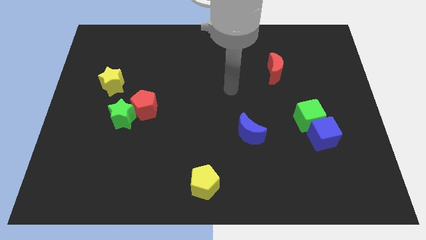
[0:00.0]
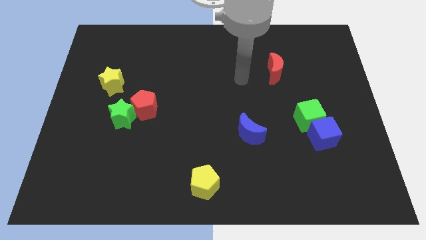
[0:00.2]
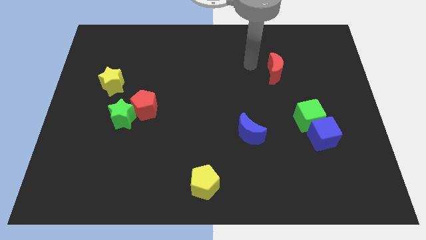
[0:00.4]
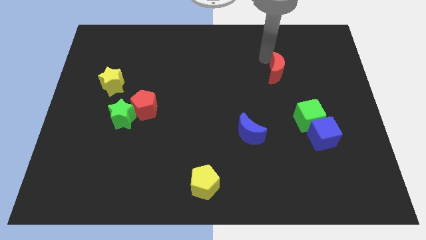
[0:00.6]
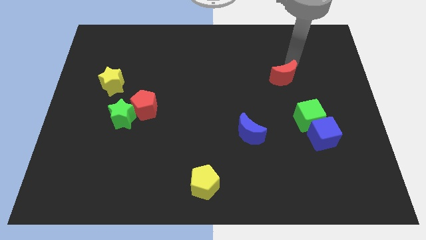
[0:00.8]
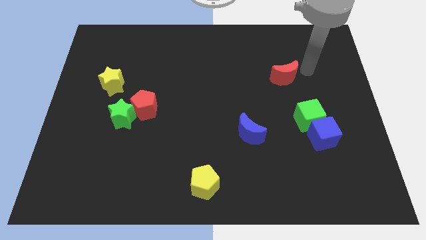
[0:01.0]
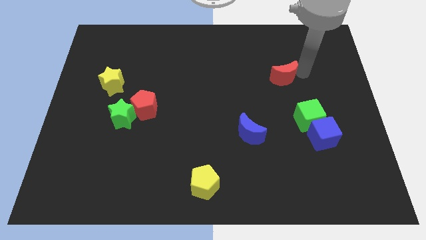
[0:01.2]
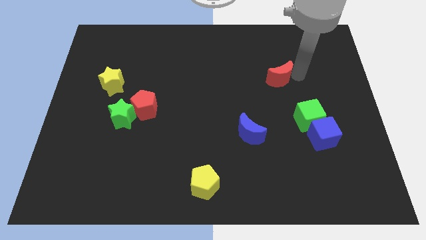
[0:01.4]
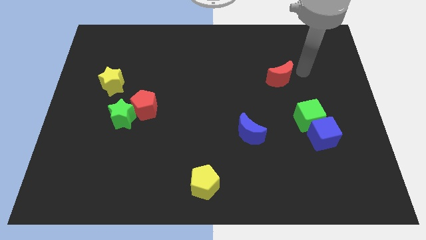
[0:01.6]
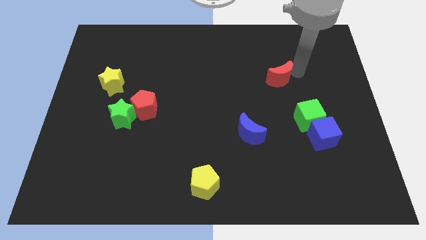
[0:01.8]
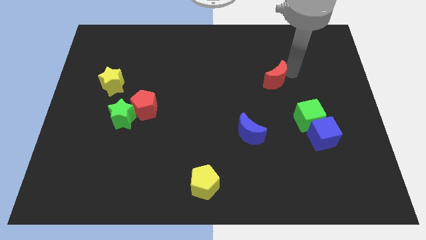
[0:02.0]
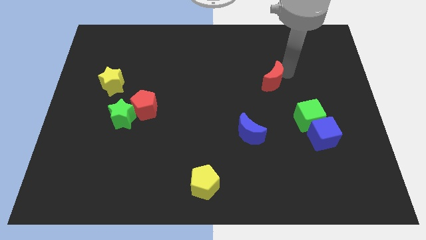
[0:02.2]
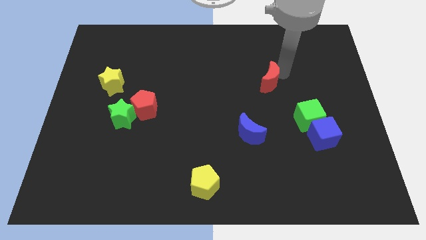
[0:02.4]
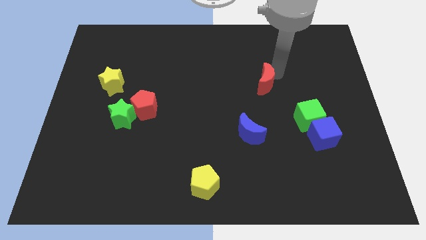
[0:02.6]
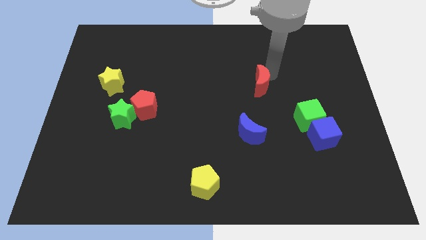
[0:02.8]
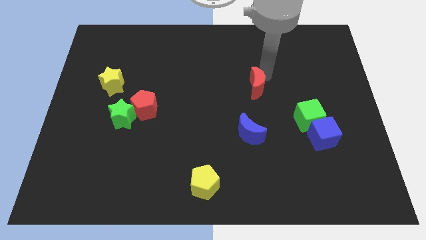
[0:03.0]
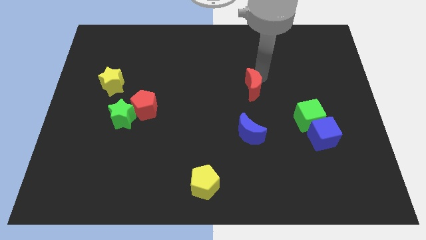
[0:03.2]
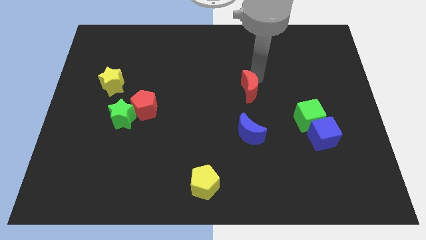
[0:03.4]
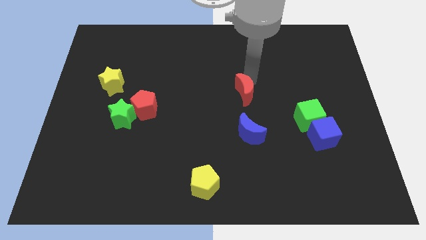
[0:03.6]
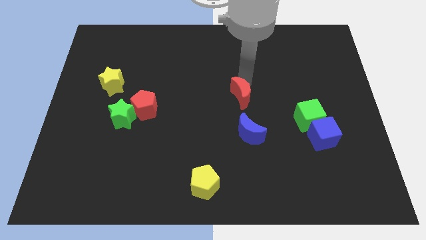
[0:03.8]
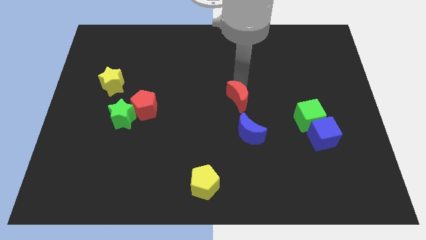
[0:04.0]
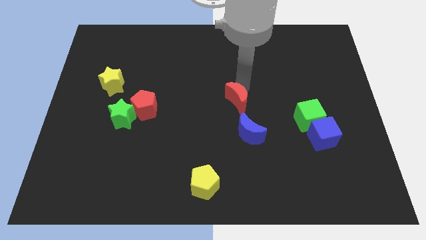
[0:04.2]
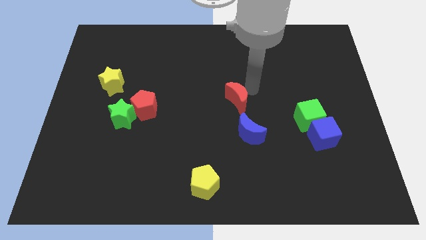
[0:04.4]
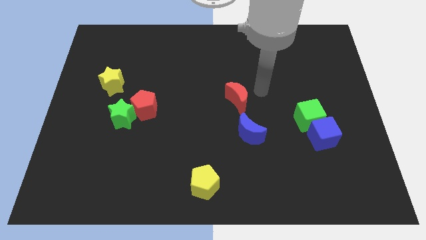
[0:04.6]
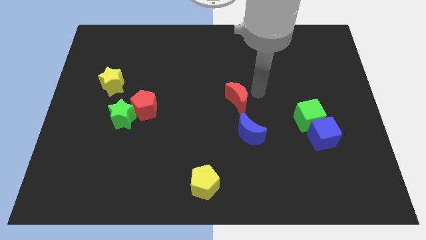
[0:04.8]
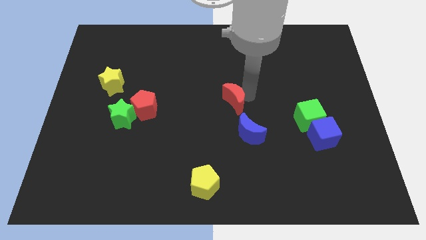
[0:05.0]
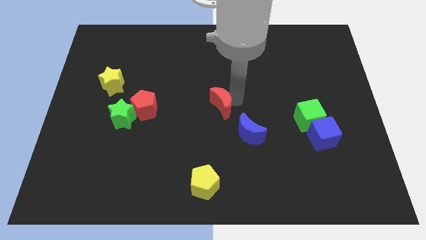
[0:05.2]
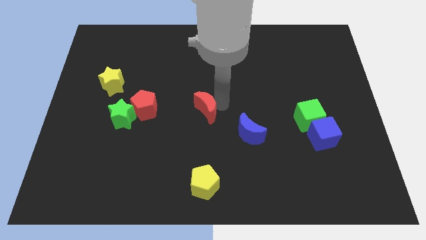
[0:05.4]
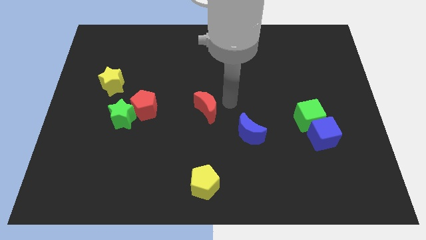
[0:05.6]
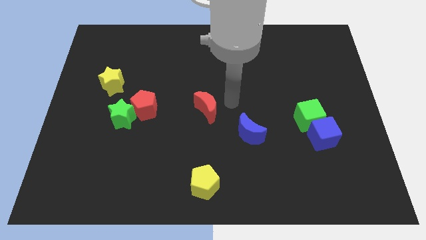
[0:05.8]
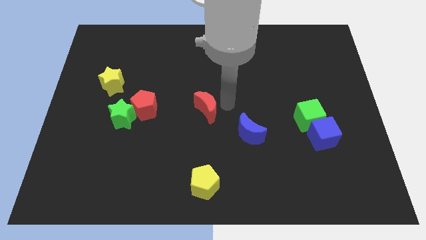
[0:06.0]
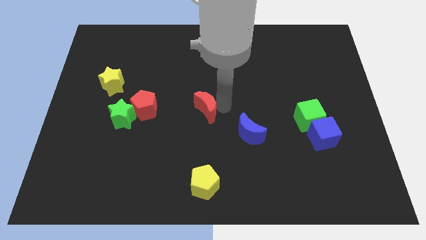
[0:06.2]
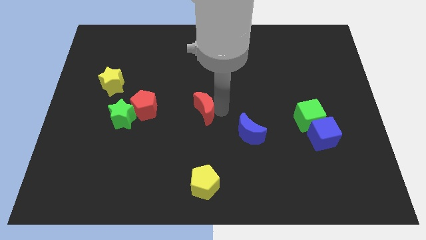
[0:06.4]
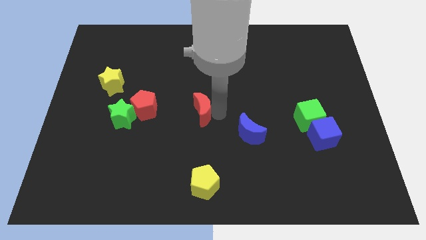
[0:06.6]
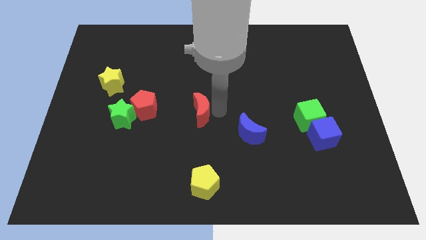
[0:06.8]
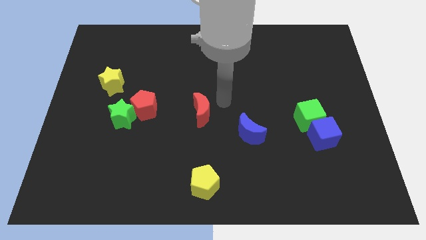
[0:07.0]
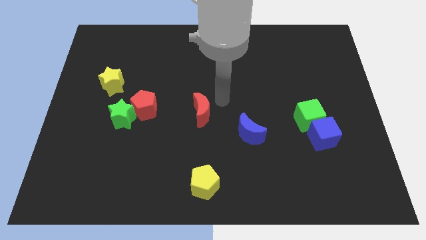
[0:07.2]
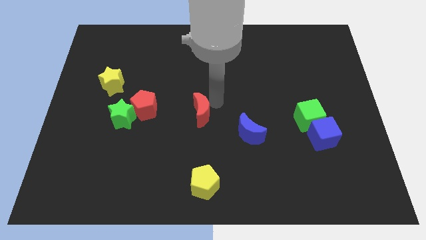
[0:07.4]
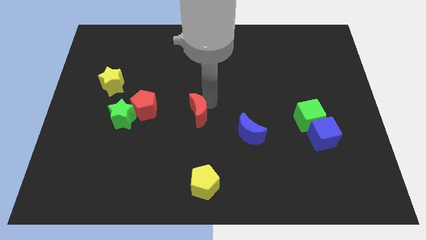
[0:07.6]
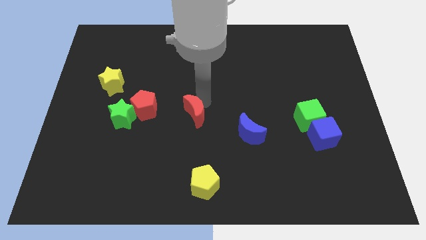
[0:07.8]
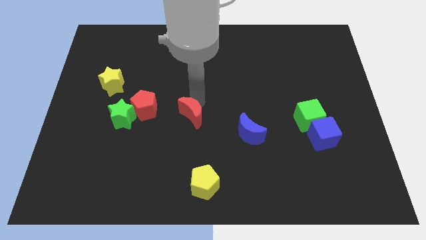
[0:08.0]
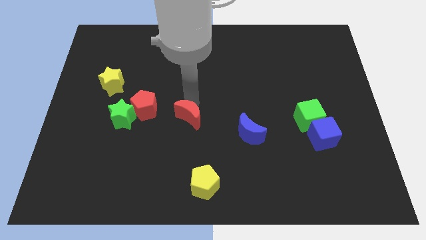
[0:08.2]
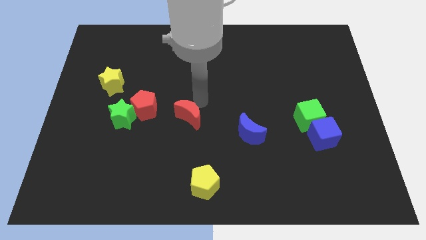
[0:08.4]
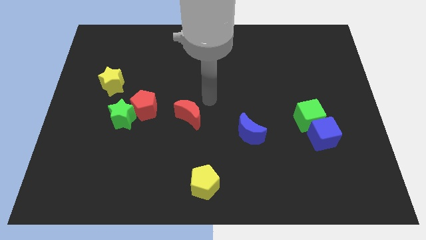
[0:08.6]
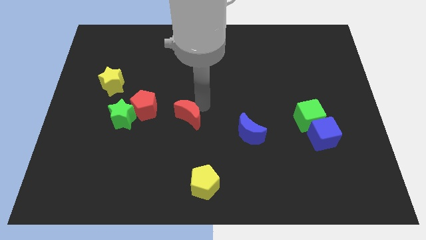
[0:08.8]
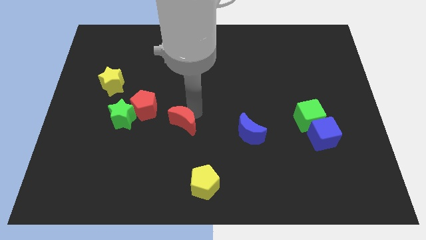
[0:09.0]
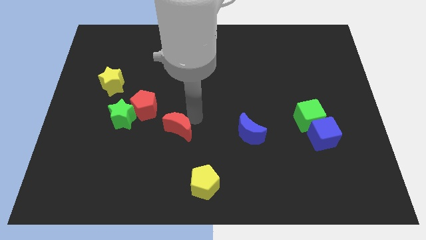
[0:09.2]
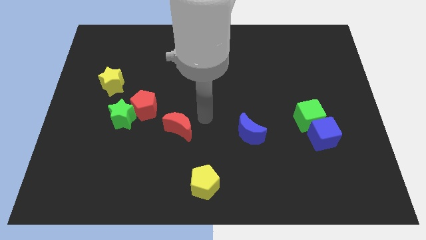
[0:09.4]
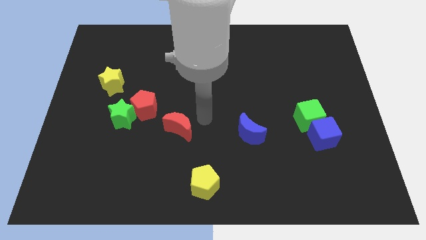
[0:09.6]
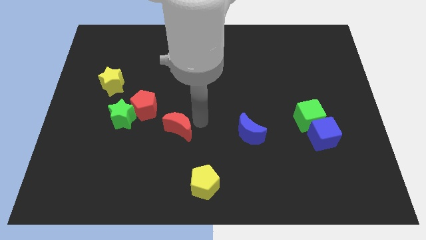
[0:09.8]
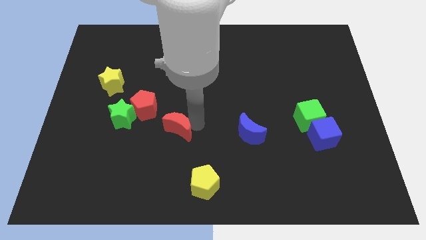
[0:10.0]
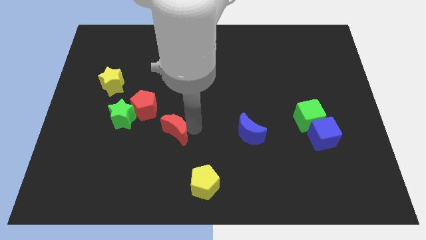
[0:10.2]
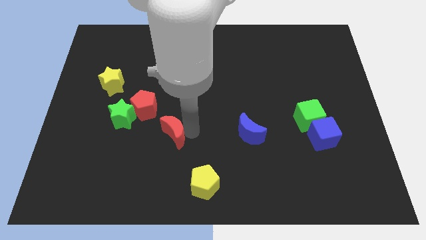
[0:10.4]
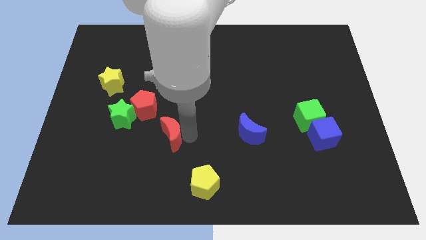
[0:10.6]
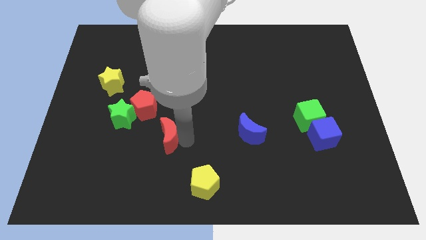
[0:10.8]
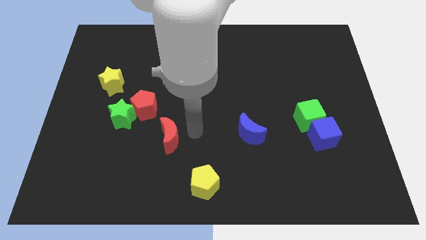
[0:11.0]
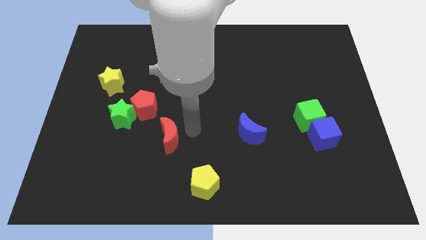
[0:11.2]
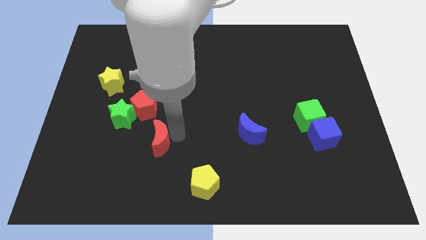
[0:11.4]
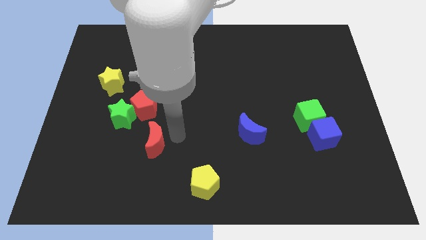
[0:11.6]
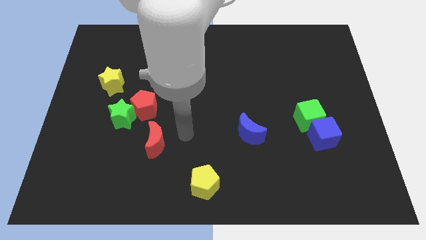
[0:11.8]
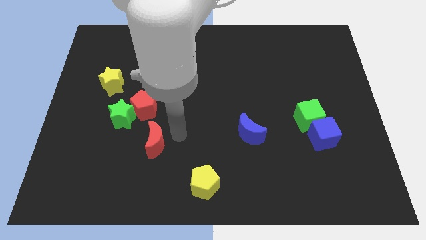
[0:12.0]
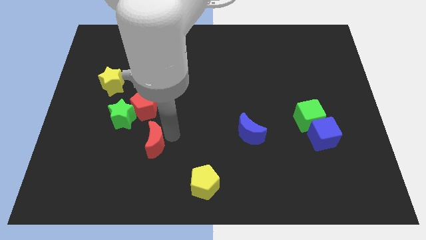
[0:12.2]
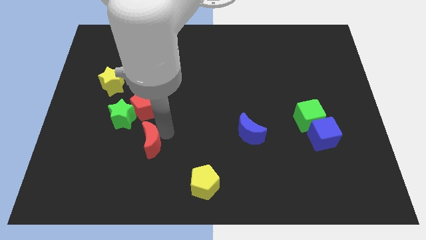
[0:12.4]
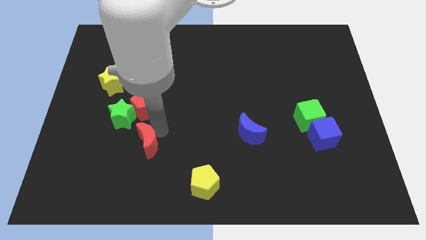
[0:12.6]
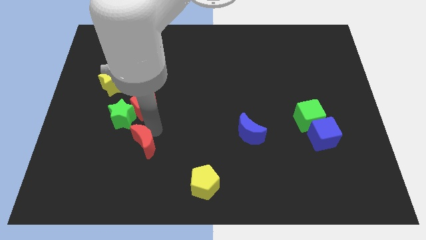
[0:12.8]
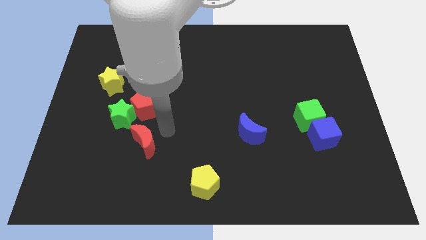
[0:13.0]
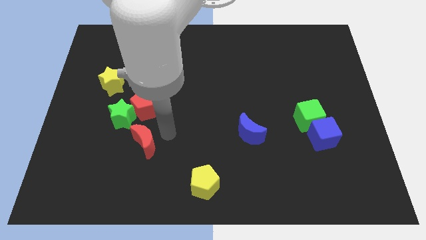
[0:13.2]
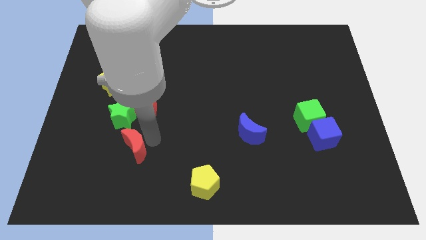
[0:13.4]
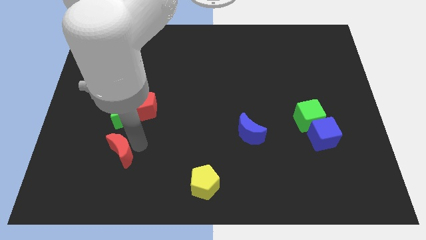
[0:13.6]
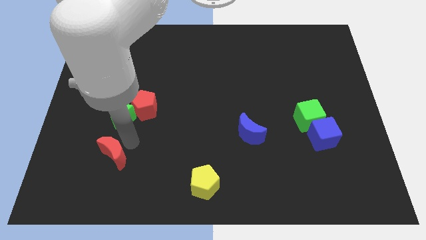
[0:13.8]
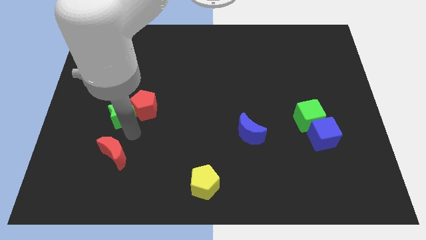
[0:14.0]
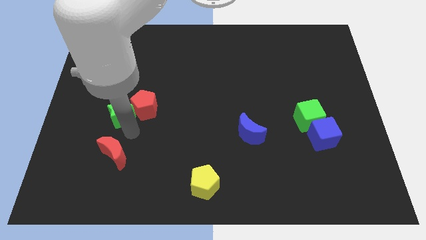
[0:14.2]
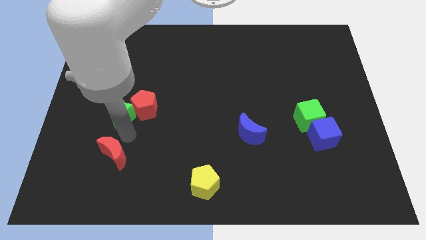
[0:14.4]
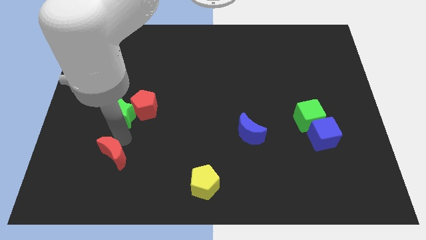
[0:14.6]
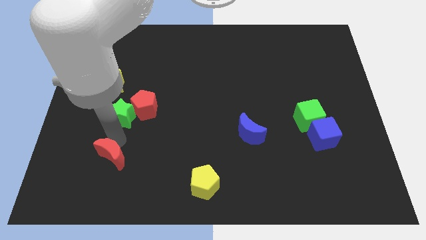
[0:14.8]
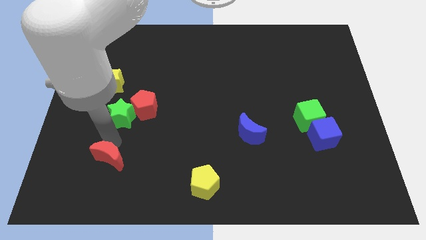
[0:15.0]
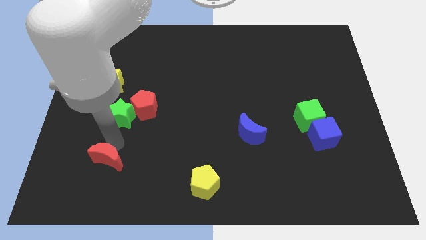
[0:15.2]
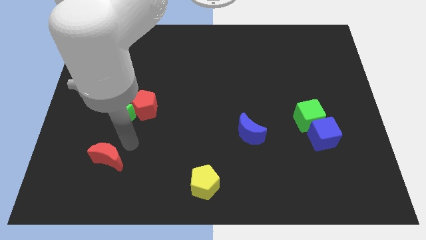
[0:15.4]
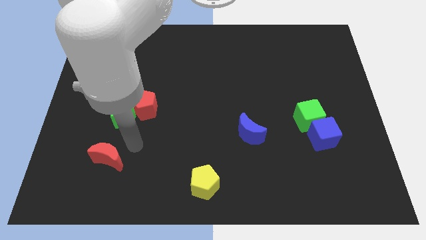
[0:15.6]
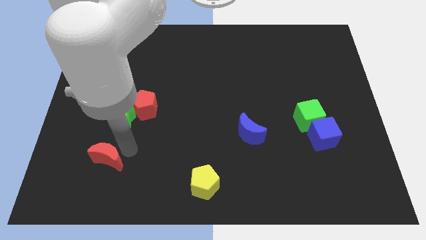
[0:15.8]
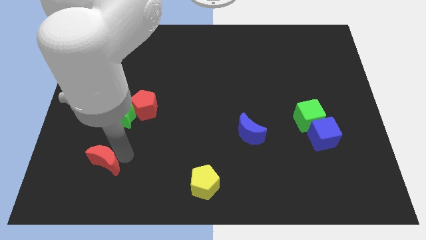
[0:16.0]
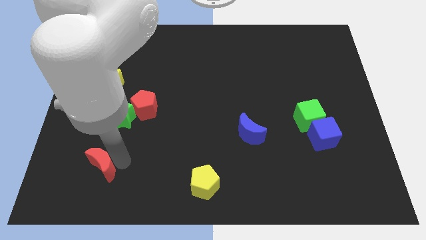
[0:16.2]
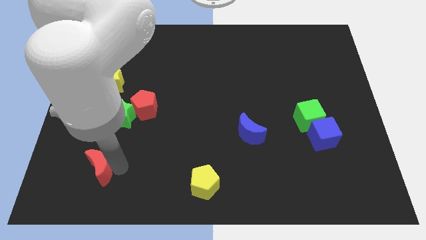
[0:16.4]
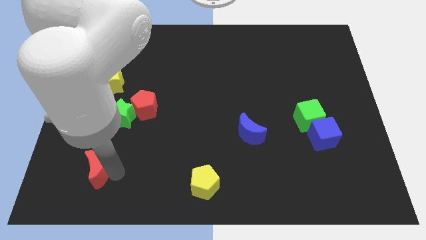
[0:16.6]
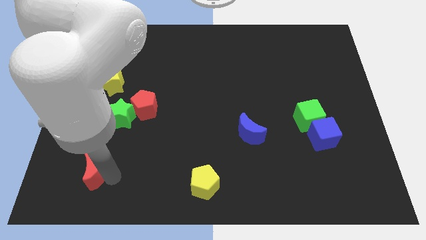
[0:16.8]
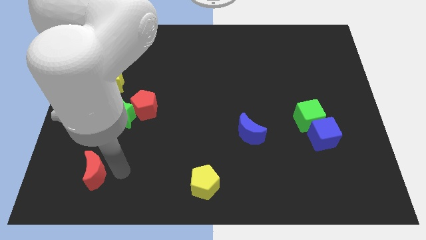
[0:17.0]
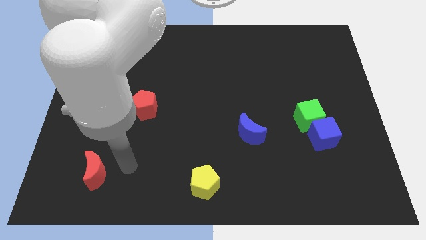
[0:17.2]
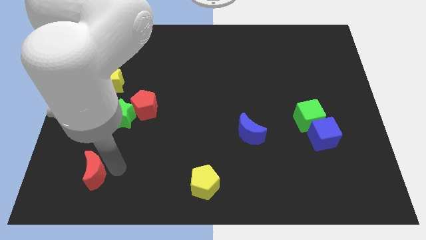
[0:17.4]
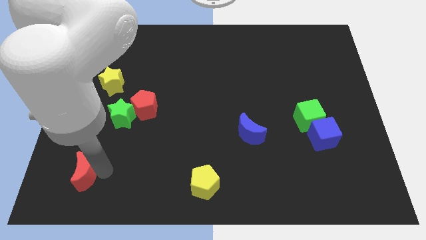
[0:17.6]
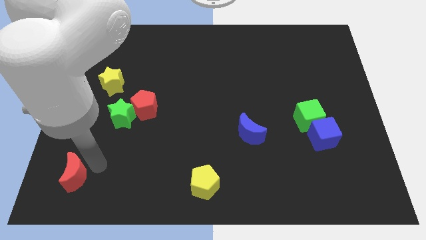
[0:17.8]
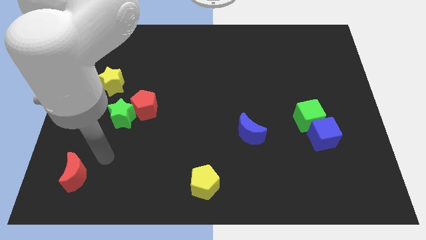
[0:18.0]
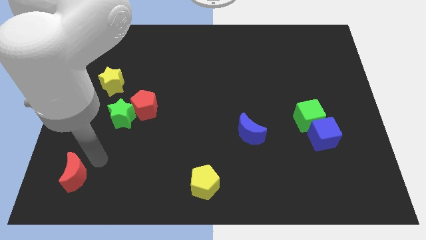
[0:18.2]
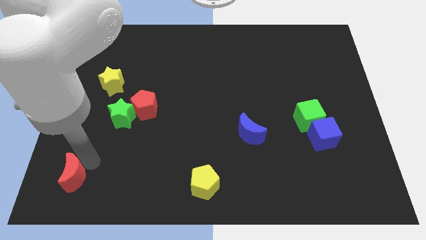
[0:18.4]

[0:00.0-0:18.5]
put the red moon to the bottom left of the board
